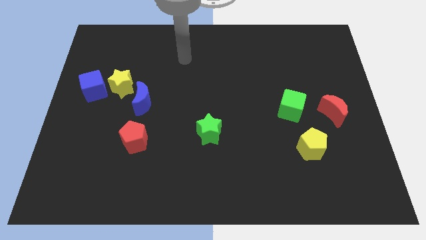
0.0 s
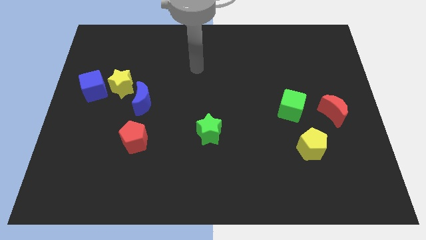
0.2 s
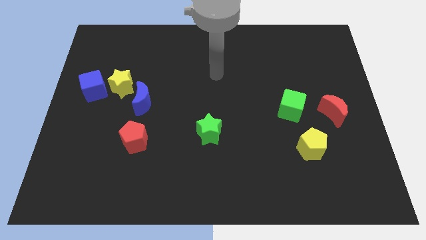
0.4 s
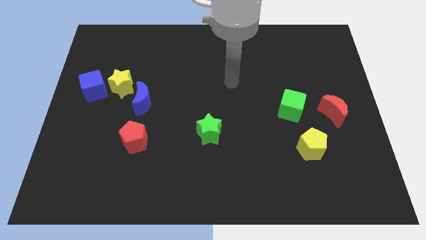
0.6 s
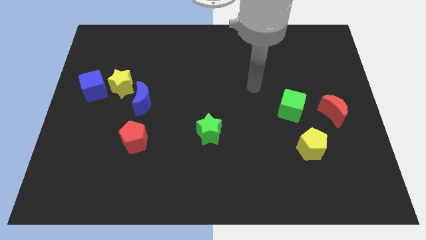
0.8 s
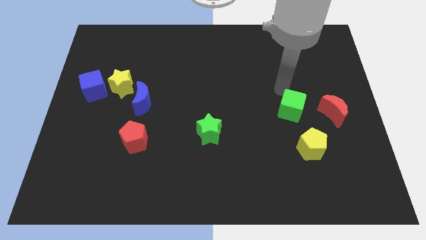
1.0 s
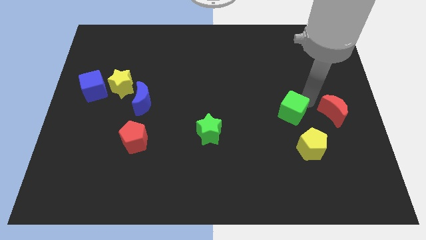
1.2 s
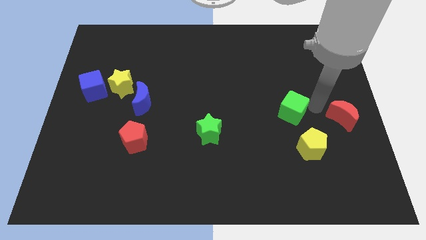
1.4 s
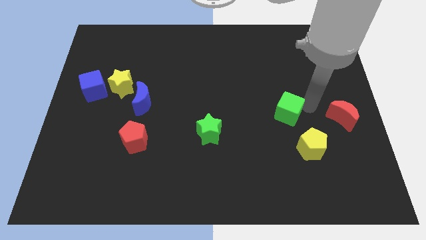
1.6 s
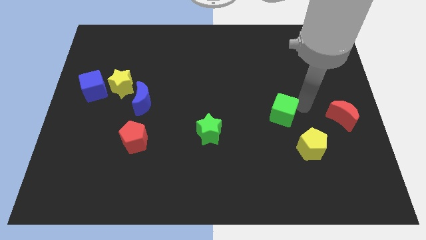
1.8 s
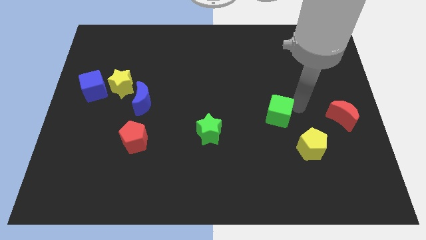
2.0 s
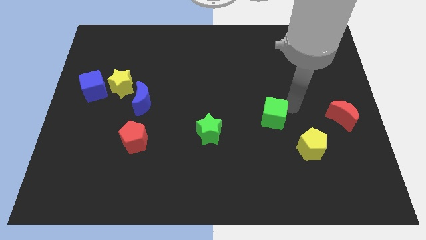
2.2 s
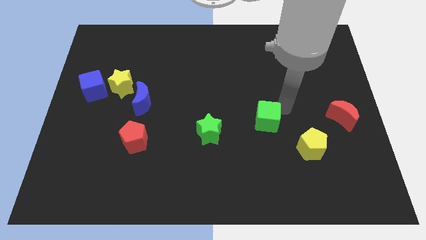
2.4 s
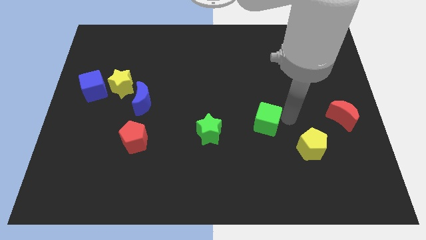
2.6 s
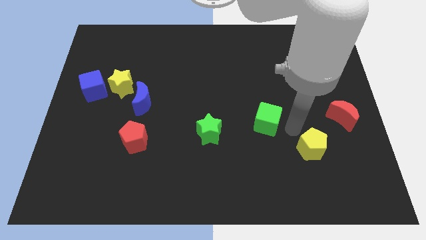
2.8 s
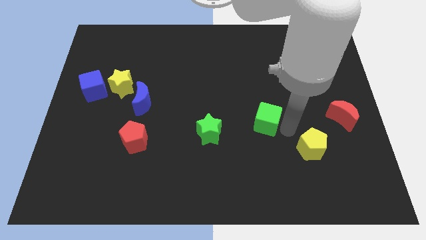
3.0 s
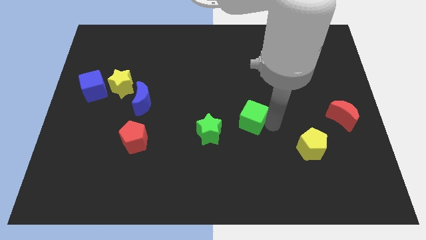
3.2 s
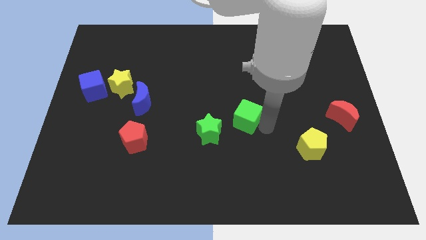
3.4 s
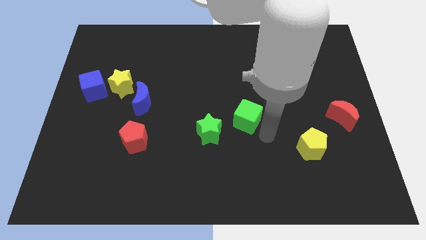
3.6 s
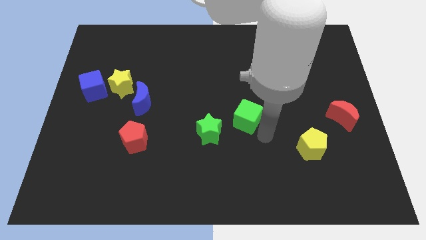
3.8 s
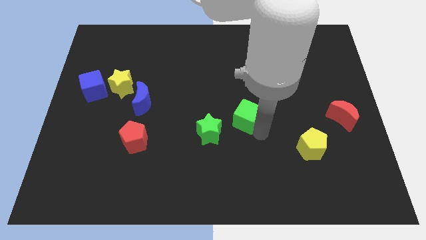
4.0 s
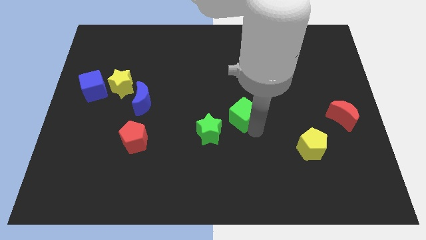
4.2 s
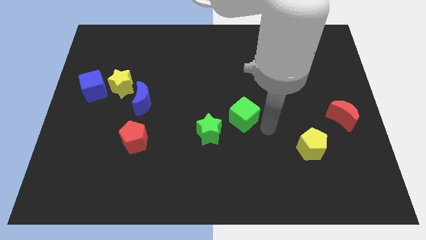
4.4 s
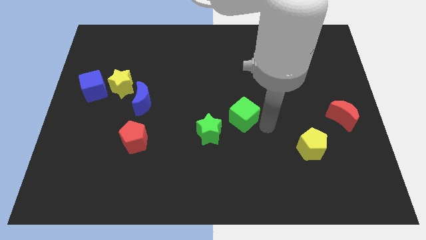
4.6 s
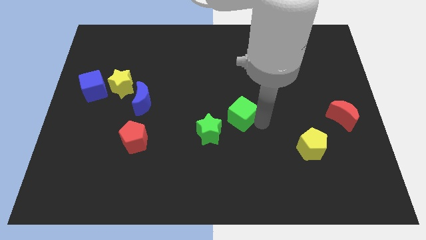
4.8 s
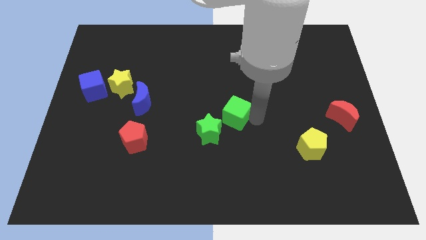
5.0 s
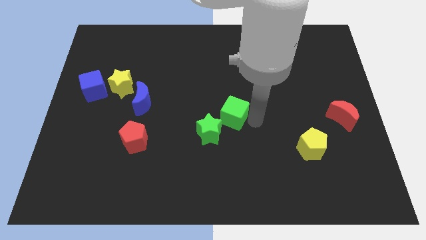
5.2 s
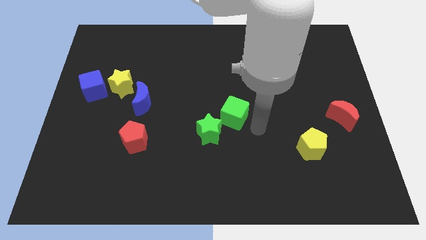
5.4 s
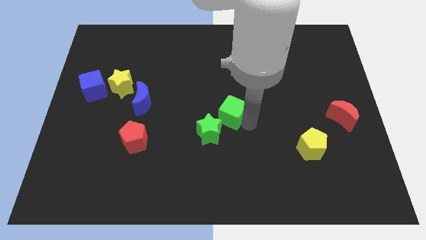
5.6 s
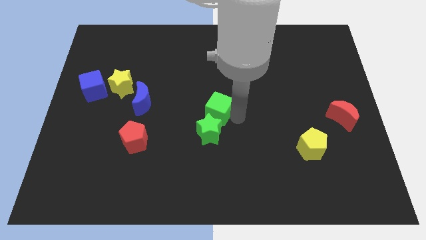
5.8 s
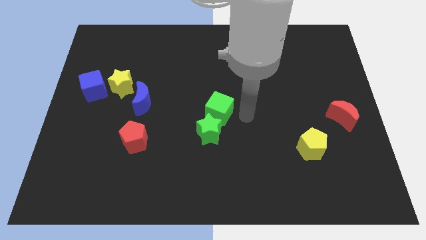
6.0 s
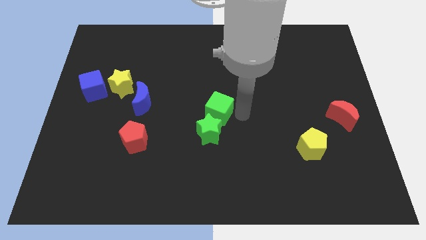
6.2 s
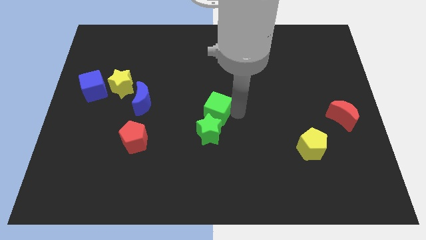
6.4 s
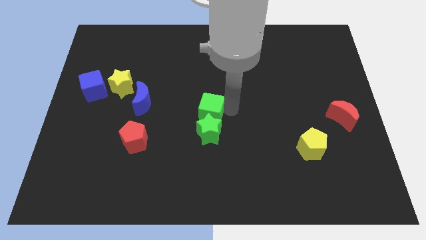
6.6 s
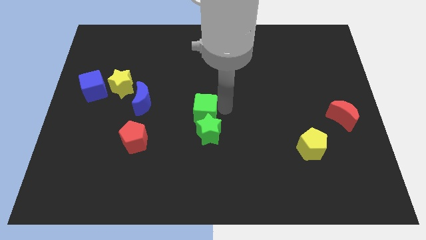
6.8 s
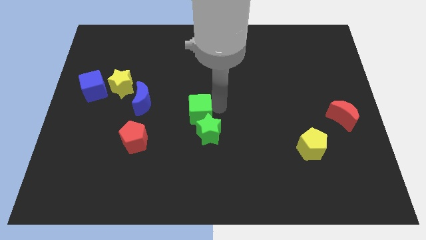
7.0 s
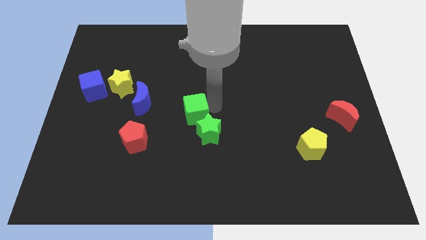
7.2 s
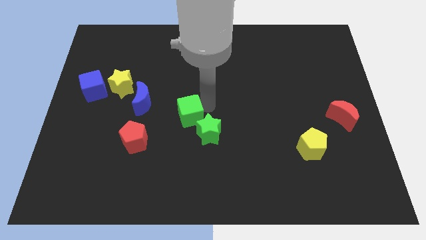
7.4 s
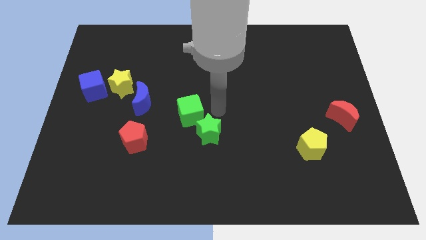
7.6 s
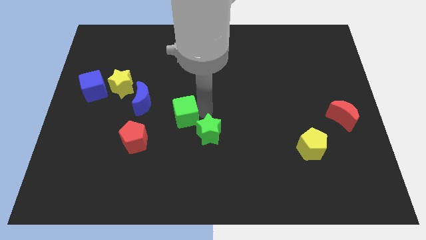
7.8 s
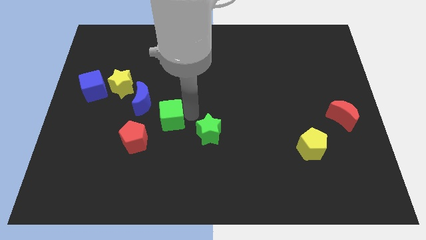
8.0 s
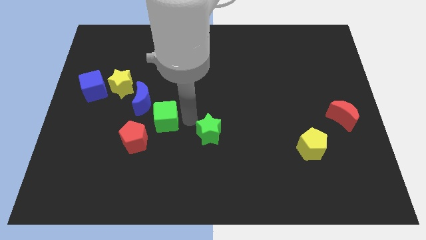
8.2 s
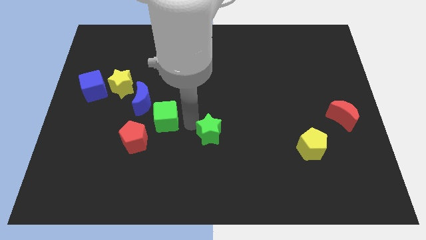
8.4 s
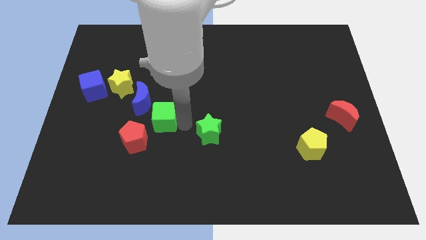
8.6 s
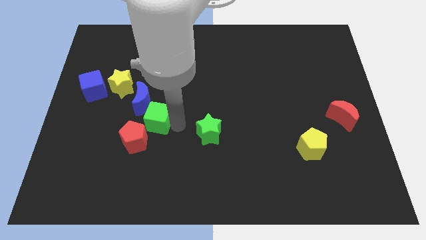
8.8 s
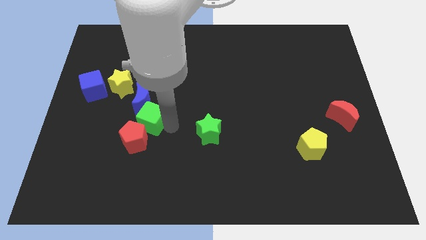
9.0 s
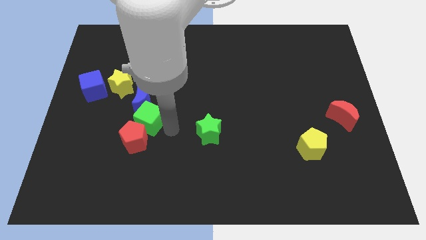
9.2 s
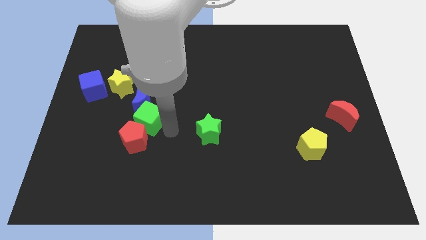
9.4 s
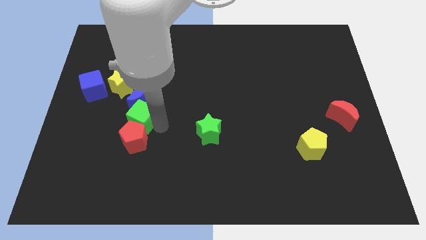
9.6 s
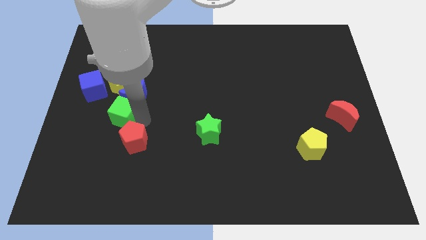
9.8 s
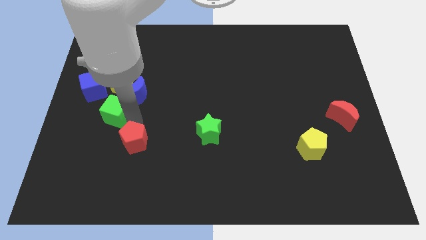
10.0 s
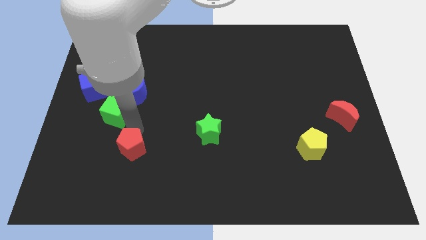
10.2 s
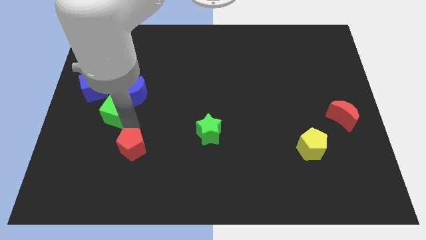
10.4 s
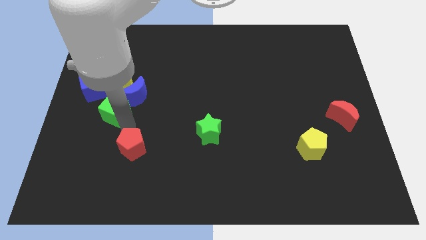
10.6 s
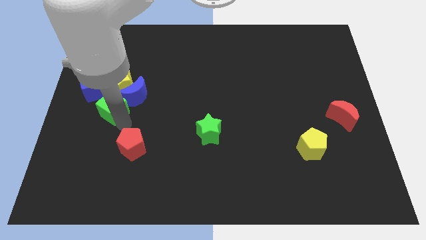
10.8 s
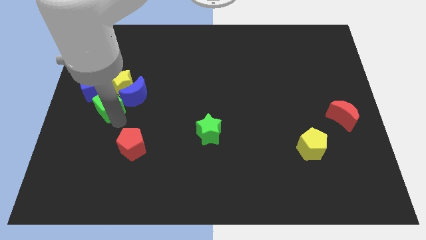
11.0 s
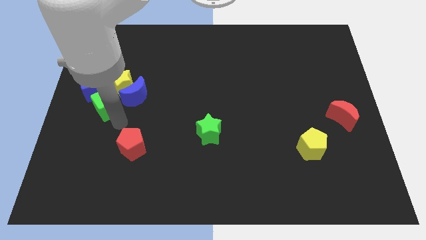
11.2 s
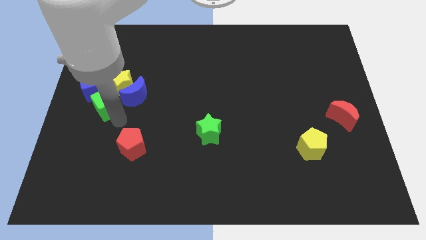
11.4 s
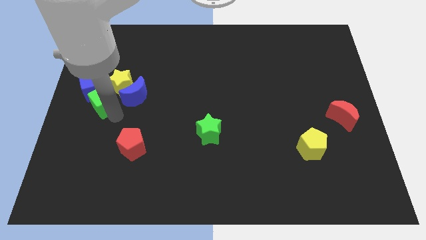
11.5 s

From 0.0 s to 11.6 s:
move the green cube close to the blue cube

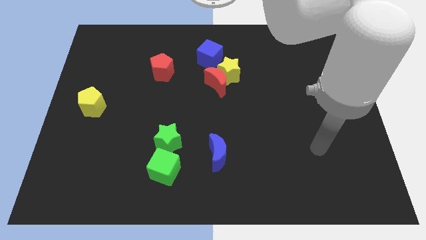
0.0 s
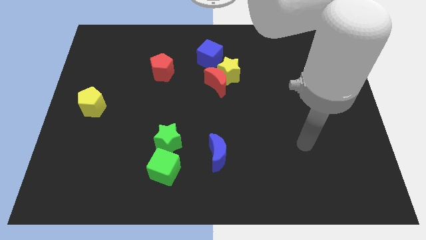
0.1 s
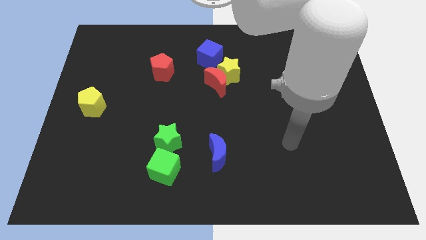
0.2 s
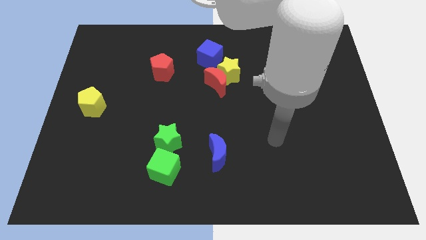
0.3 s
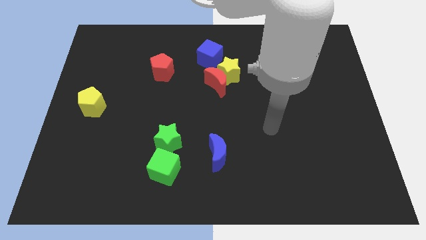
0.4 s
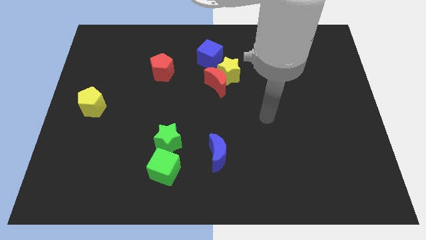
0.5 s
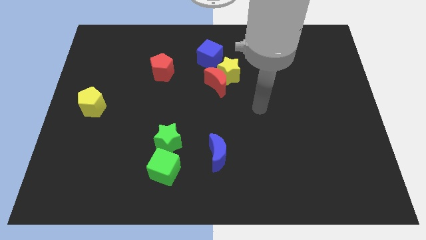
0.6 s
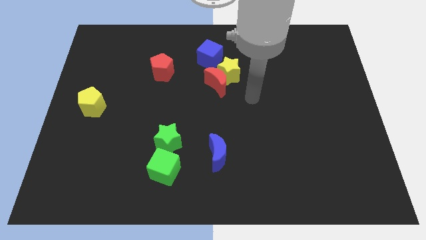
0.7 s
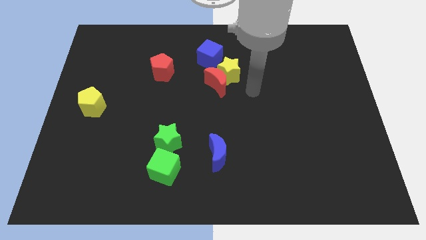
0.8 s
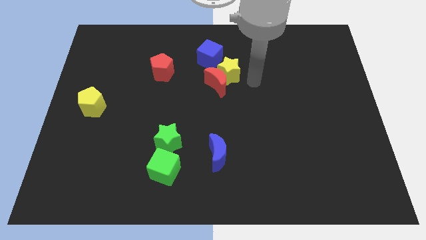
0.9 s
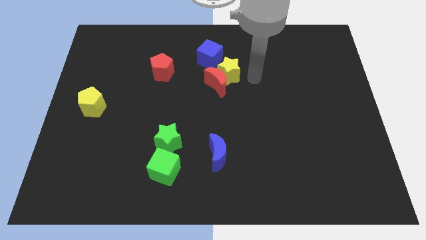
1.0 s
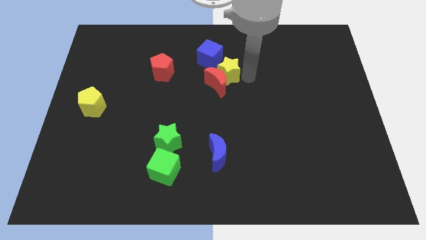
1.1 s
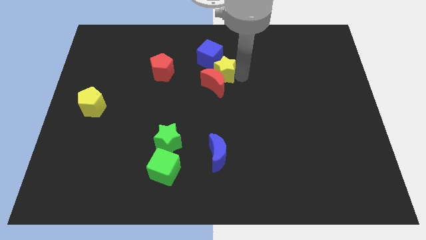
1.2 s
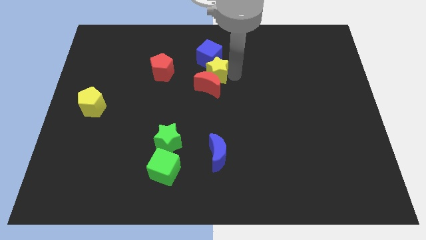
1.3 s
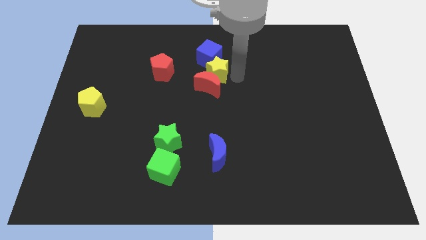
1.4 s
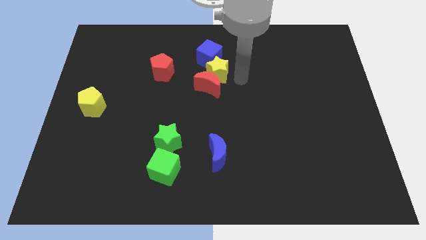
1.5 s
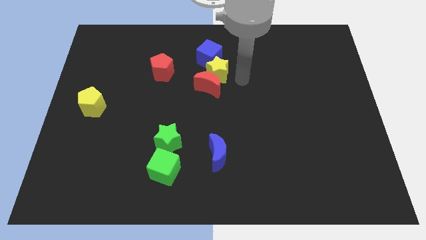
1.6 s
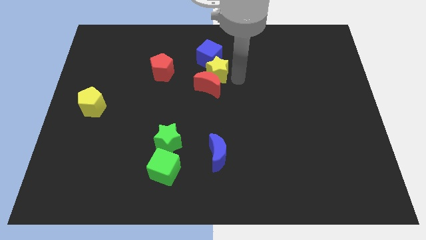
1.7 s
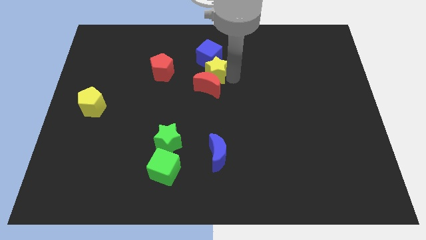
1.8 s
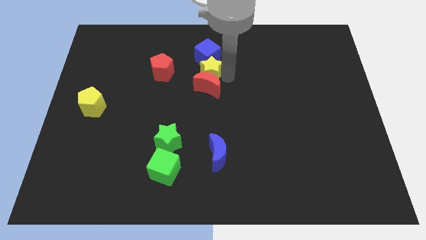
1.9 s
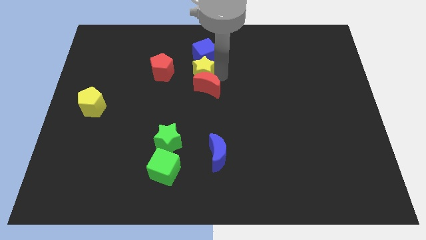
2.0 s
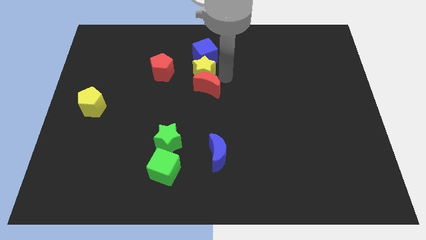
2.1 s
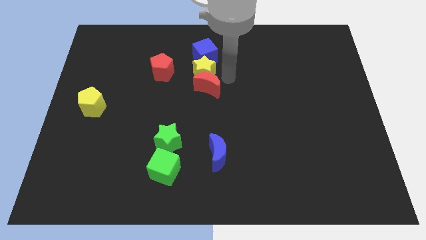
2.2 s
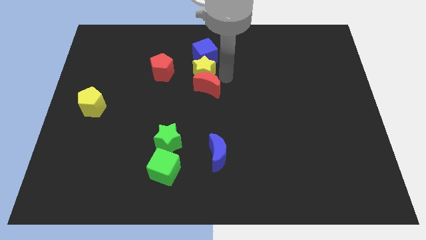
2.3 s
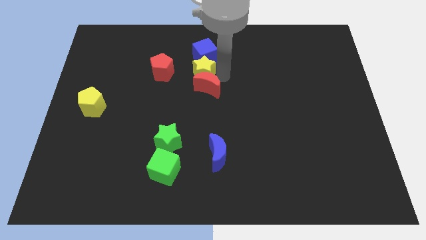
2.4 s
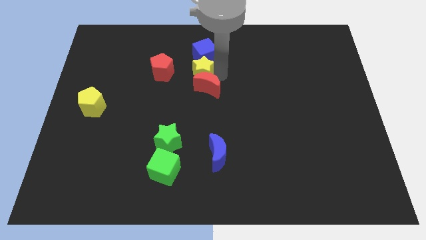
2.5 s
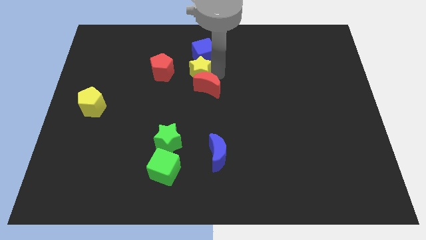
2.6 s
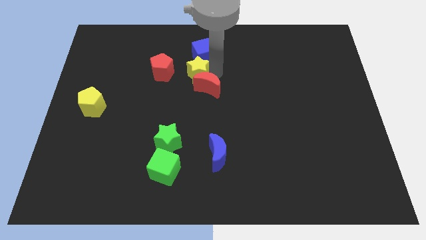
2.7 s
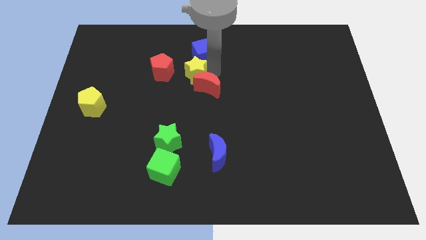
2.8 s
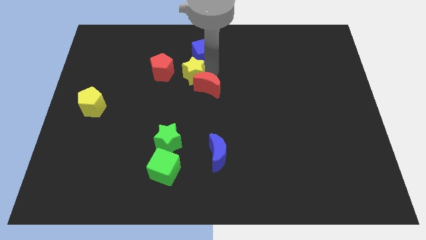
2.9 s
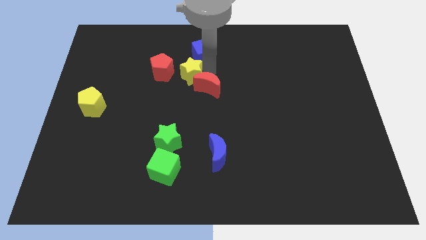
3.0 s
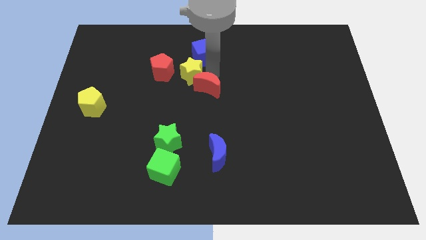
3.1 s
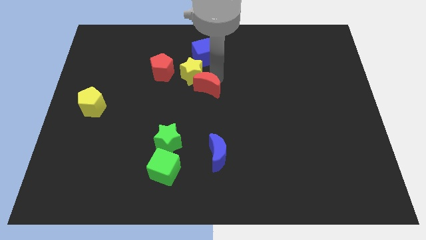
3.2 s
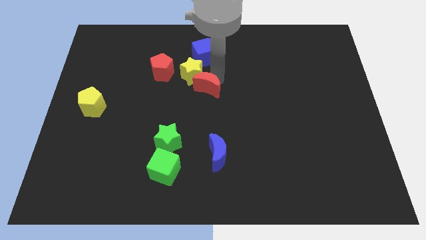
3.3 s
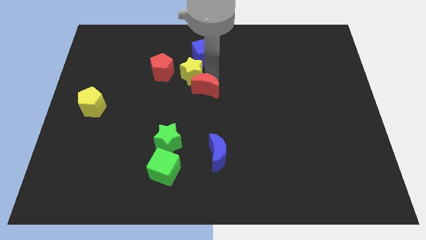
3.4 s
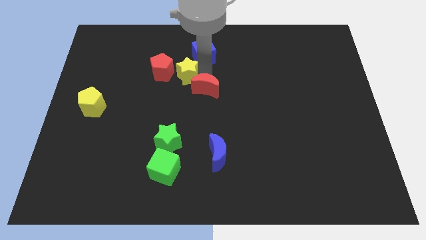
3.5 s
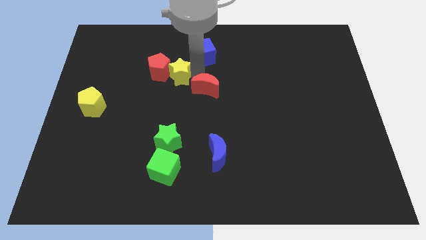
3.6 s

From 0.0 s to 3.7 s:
push the yellow star close to the red pentagon
